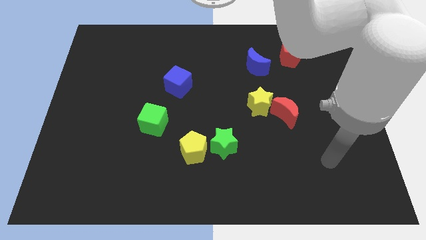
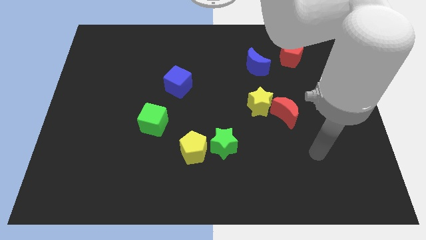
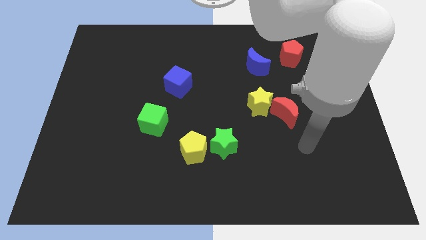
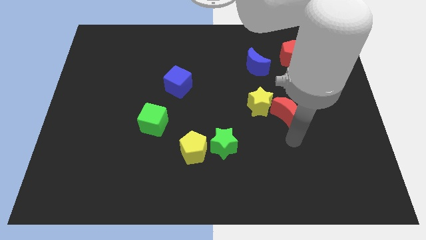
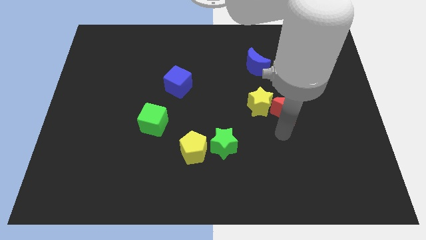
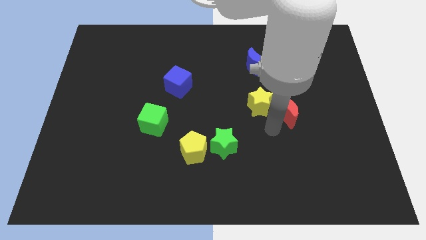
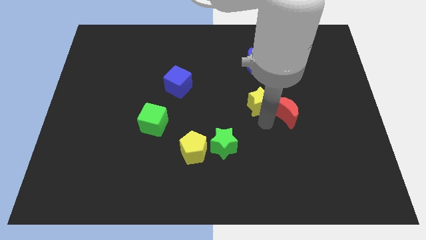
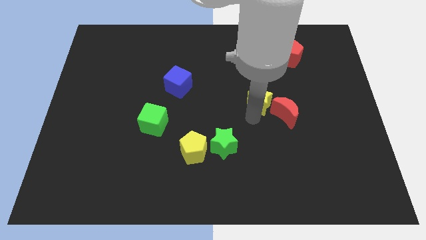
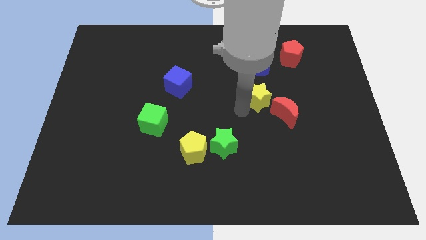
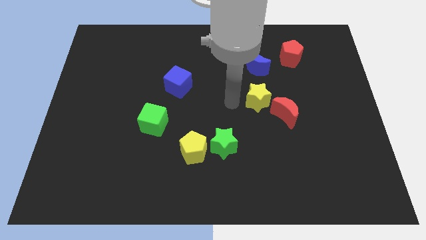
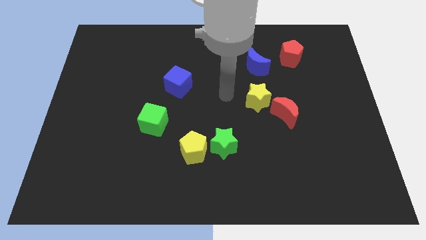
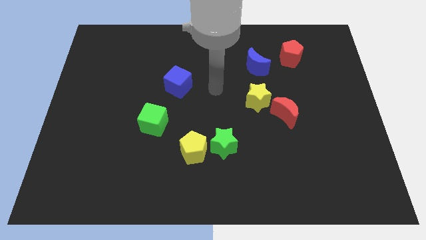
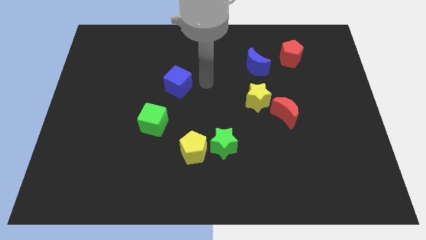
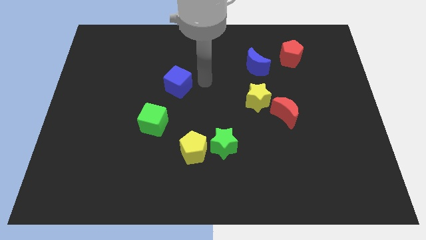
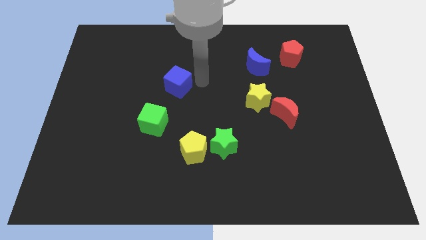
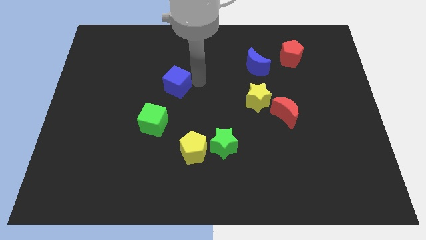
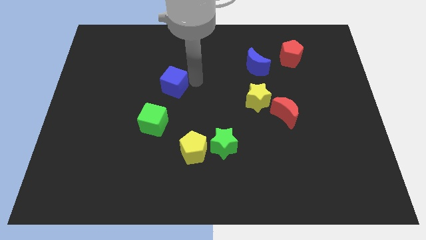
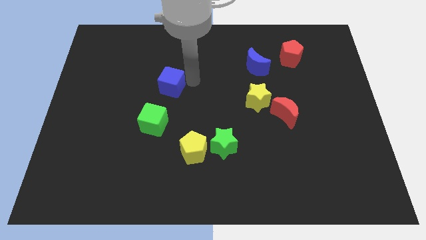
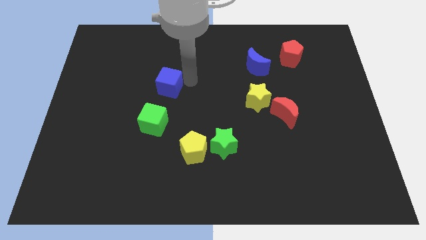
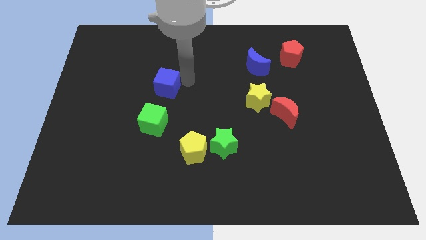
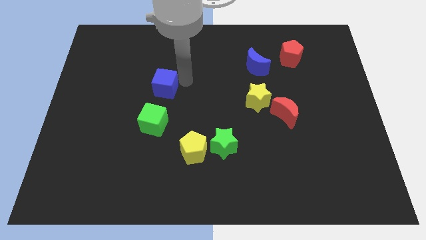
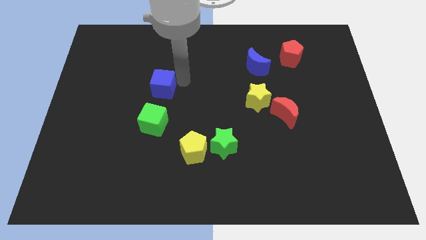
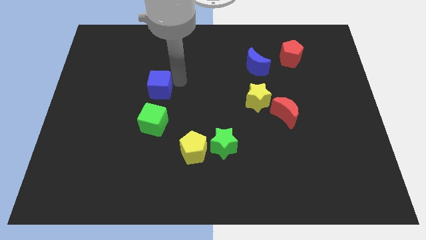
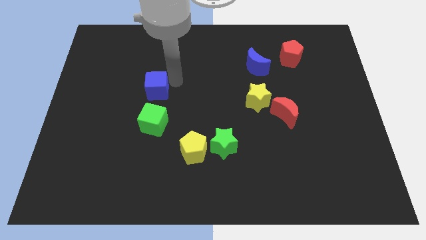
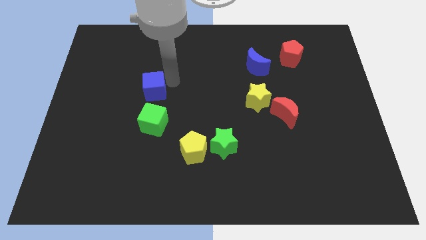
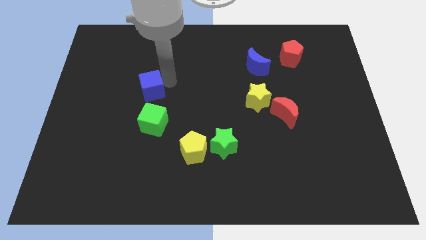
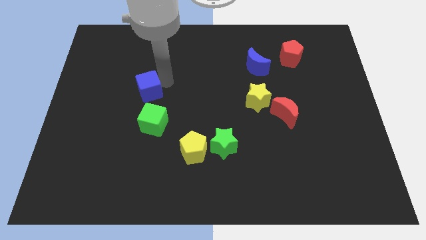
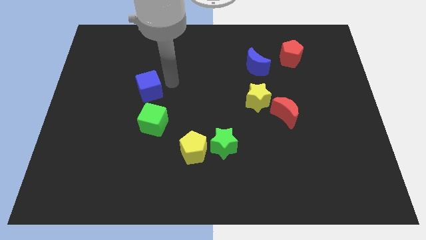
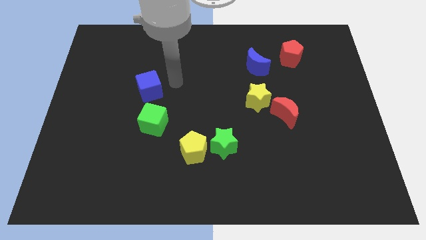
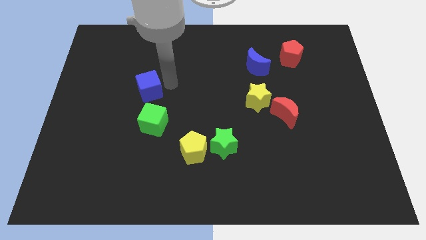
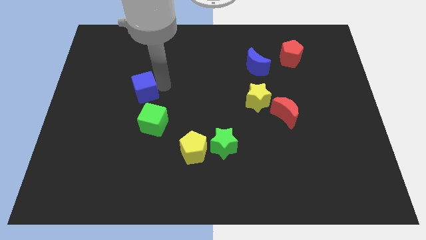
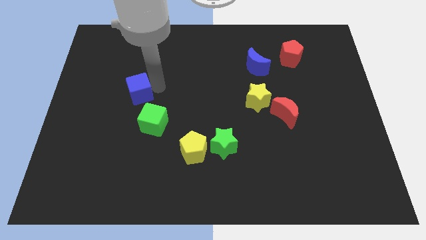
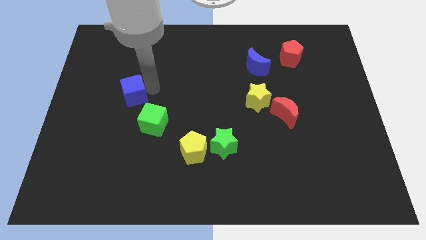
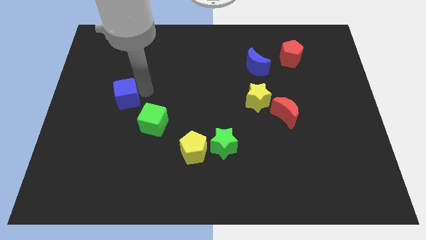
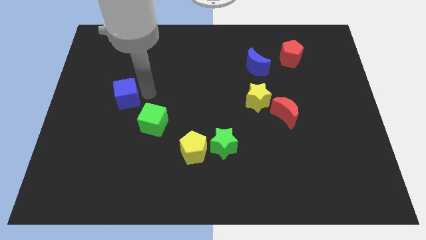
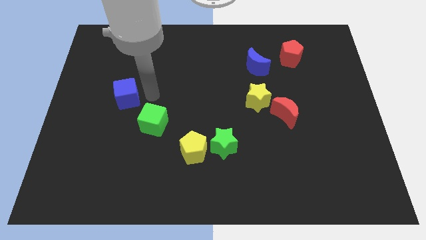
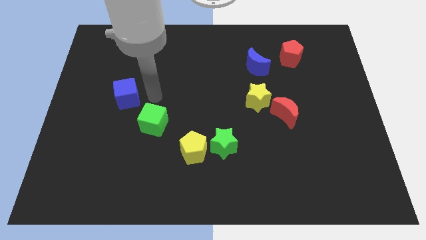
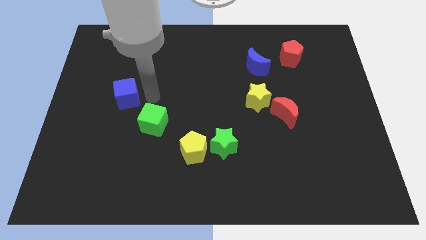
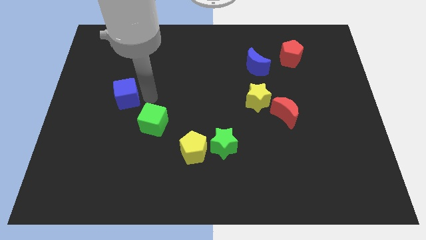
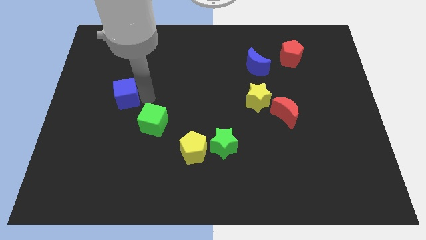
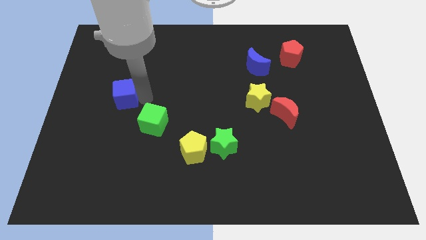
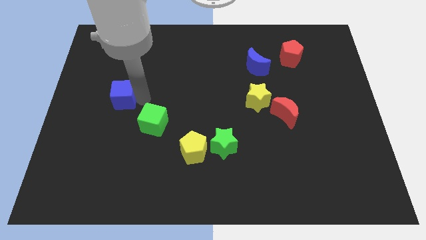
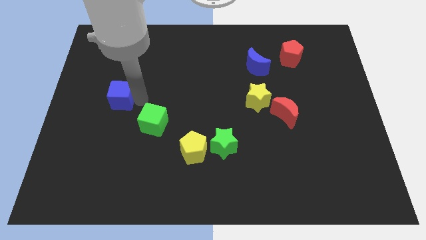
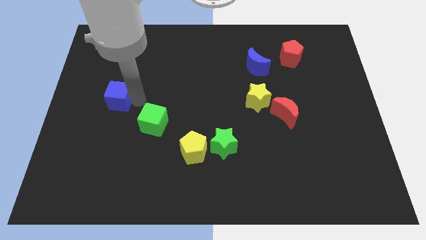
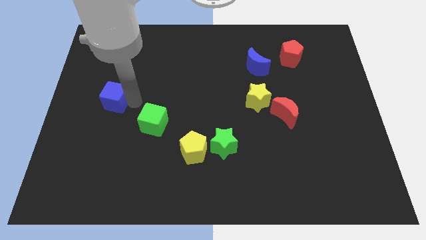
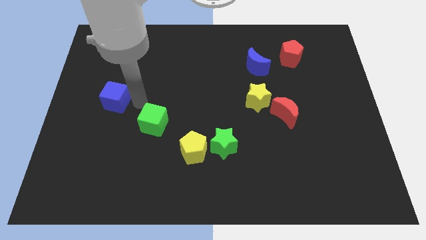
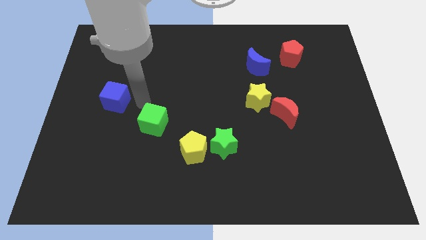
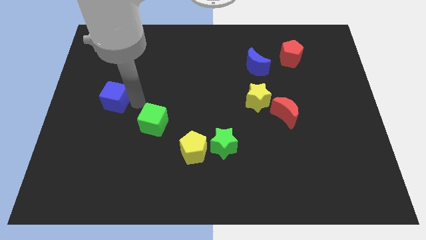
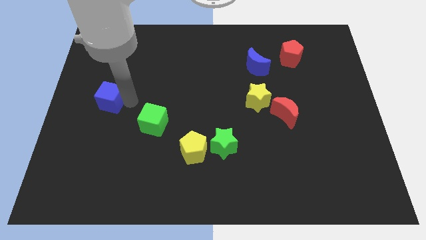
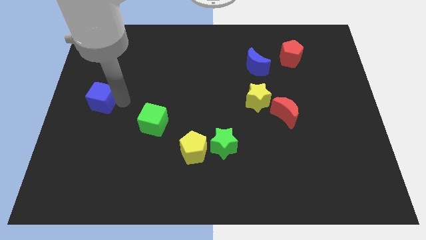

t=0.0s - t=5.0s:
slide the blue cube to the center left

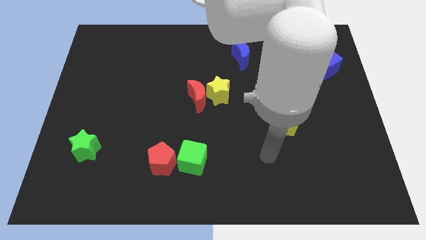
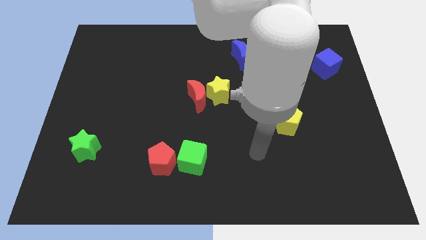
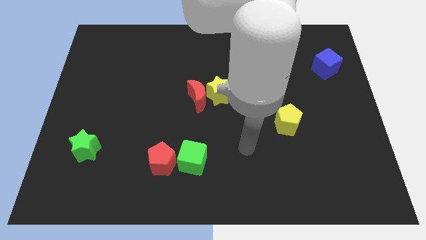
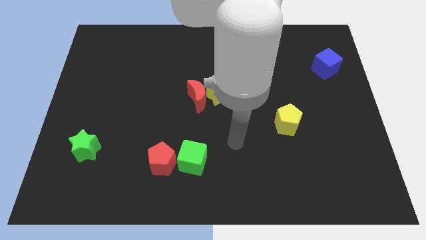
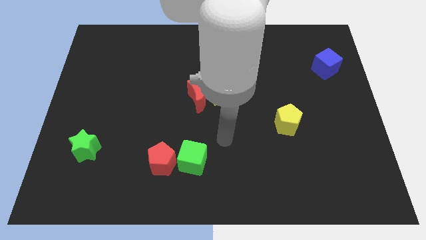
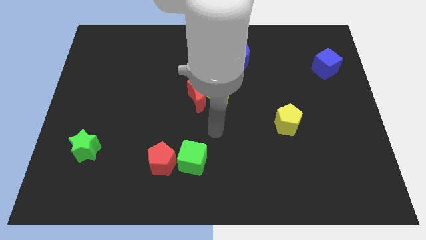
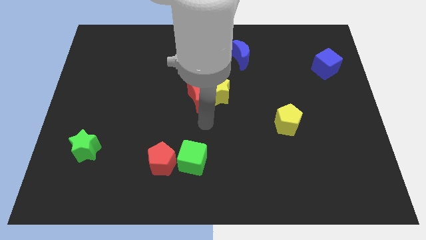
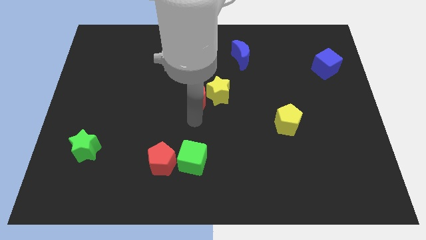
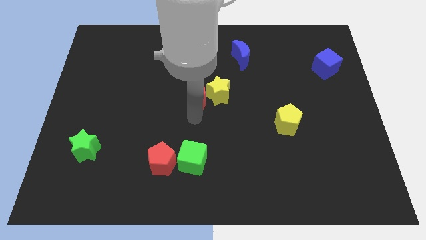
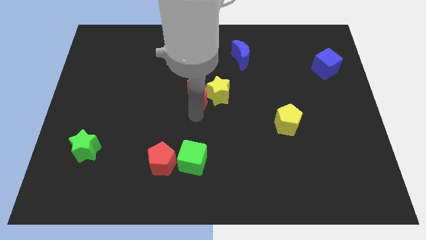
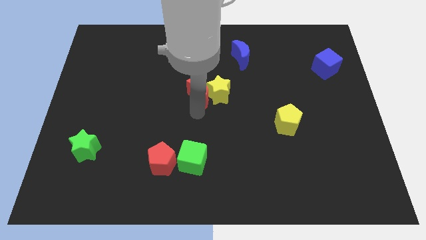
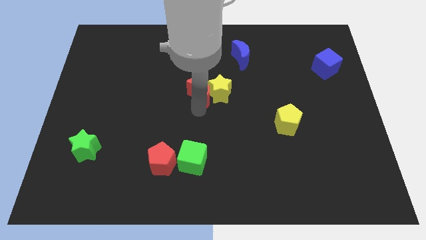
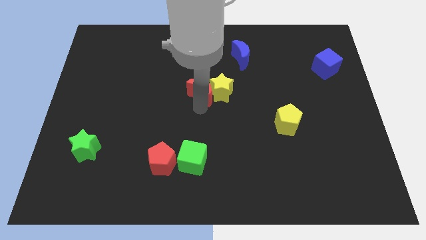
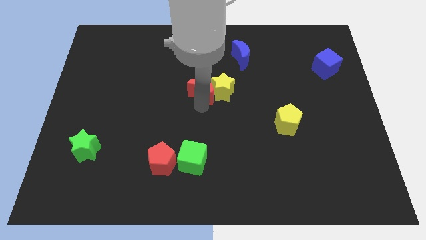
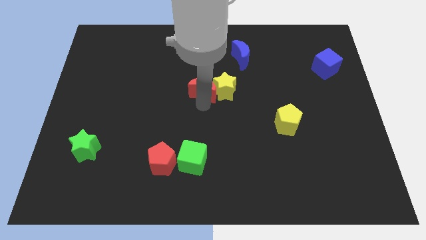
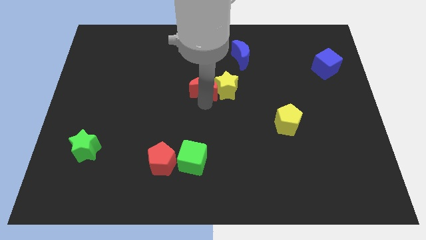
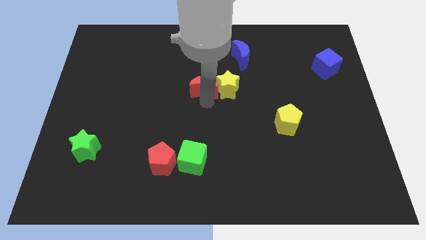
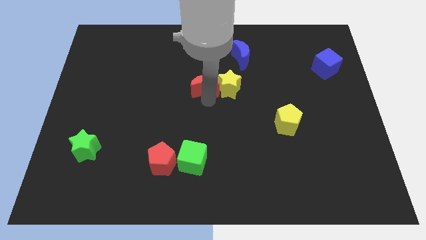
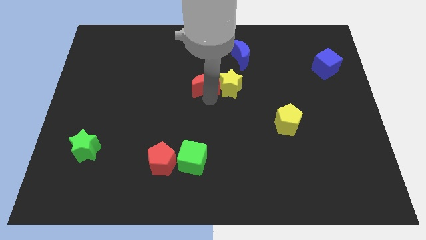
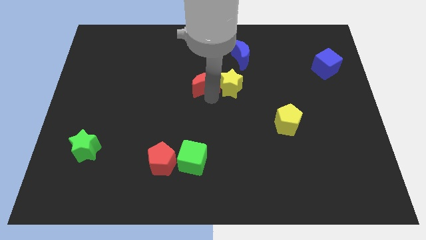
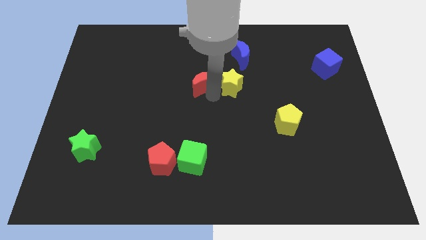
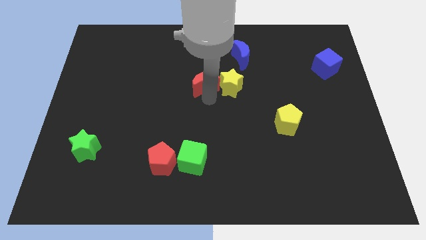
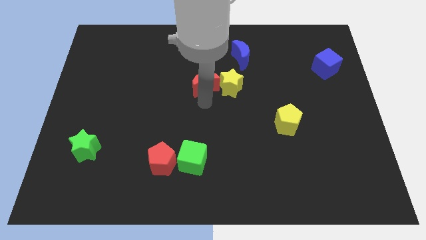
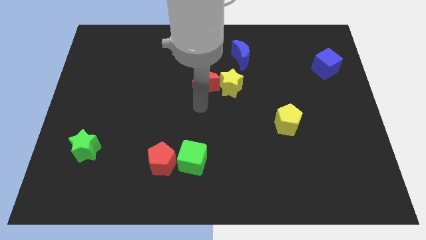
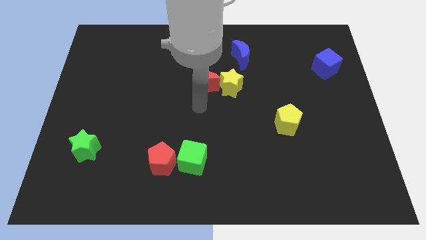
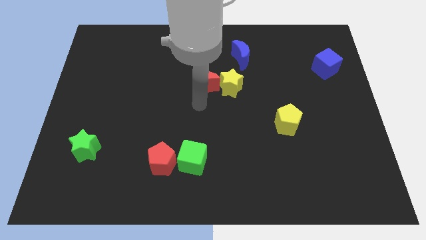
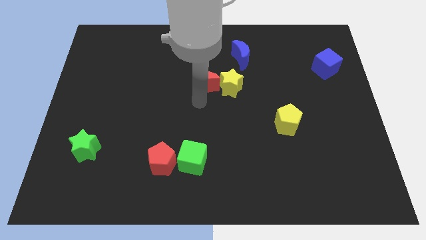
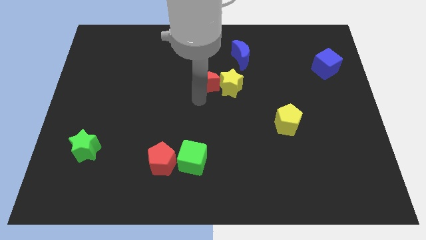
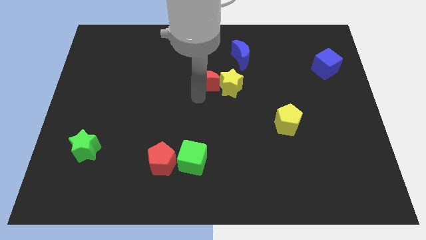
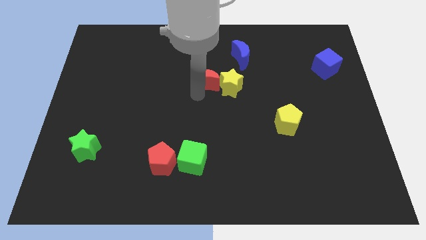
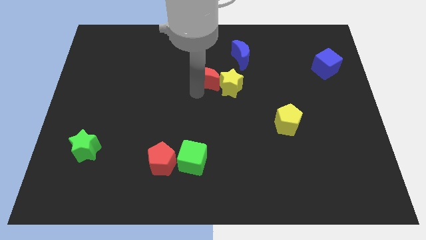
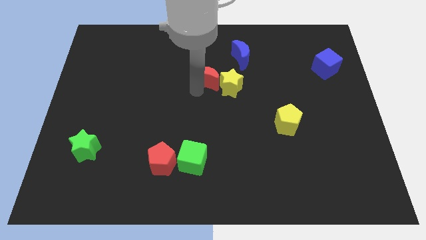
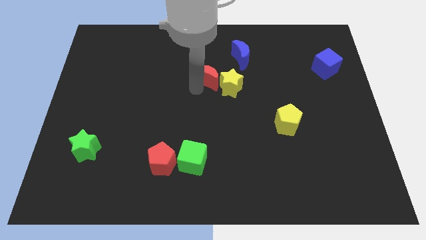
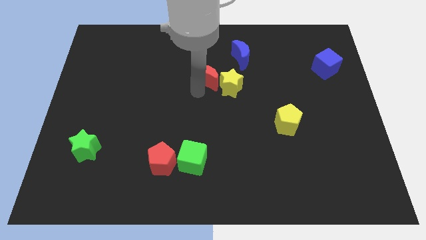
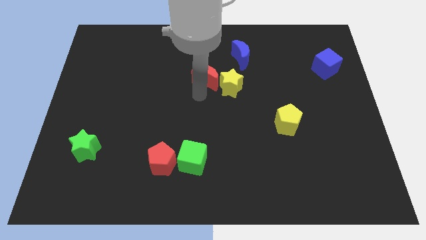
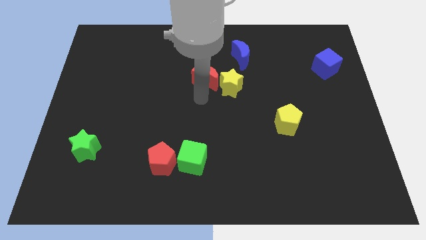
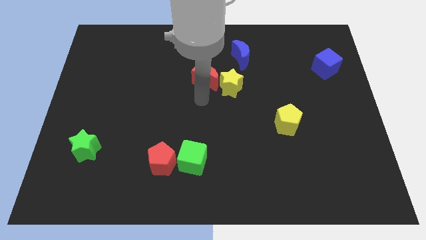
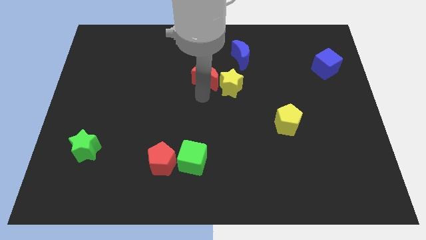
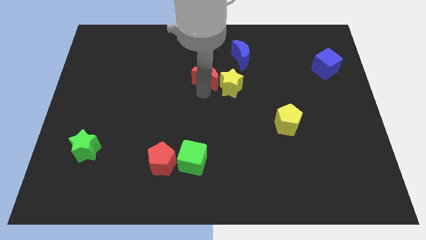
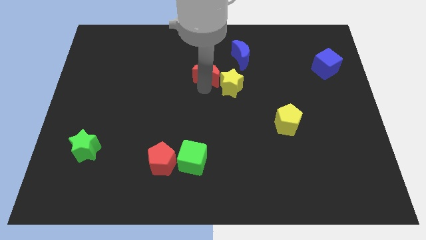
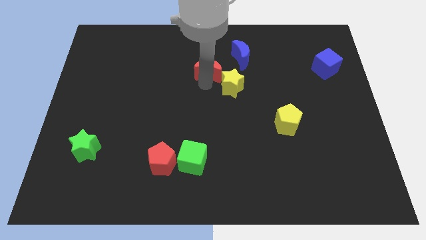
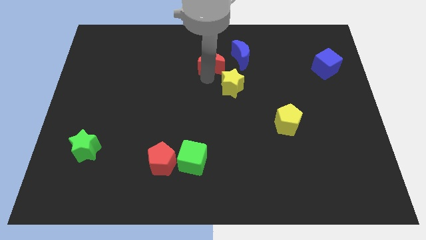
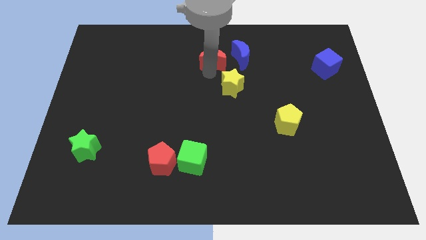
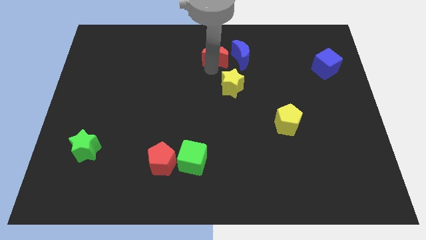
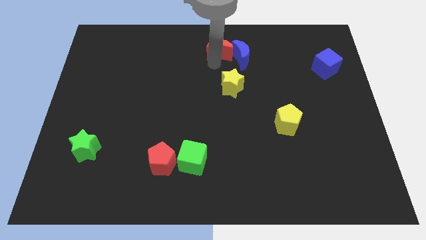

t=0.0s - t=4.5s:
put the red moon to the top side
